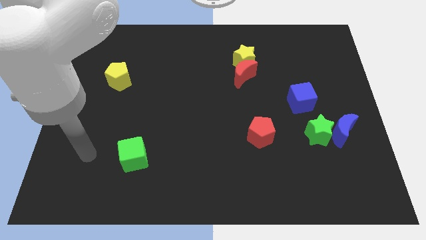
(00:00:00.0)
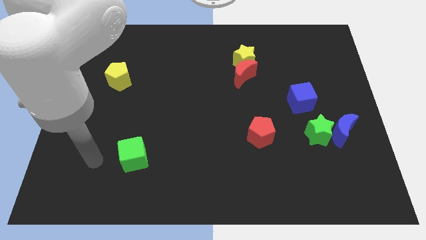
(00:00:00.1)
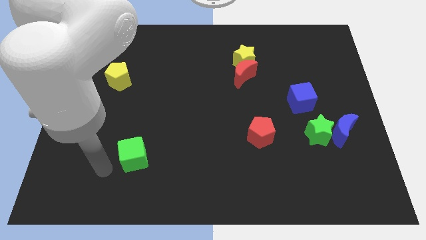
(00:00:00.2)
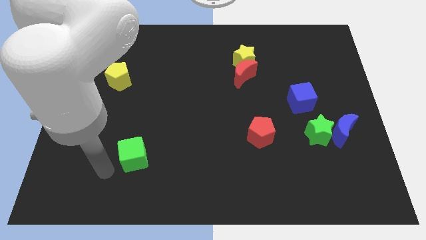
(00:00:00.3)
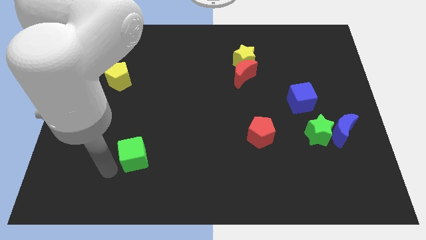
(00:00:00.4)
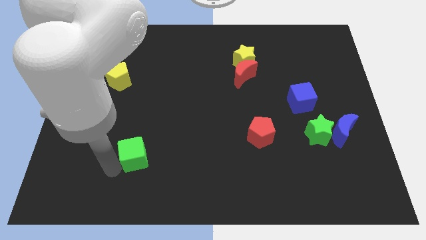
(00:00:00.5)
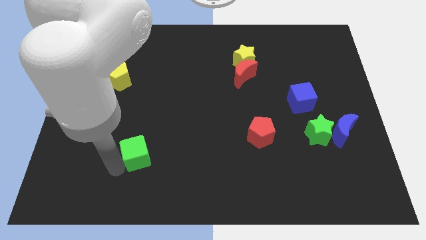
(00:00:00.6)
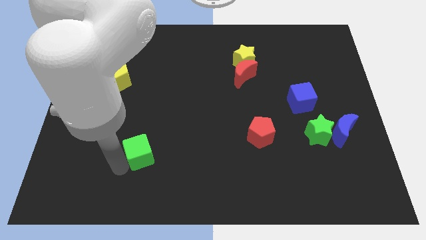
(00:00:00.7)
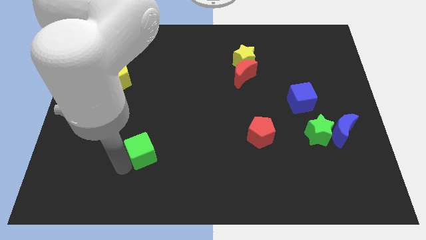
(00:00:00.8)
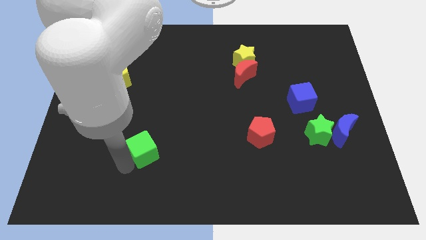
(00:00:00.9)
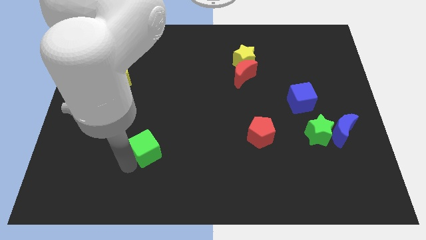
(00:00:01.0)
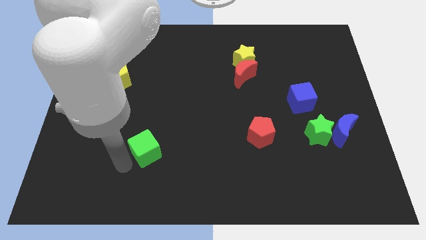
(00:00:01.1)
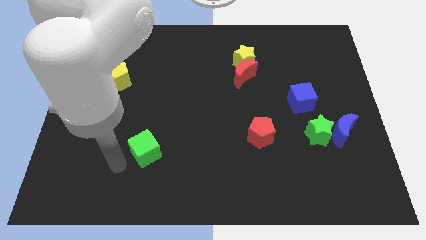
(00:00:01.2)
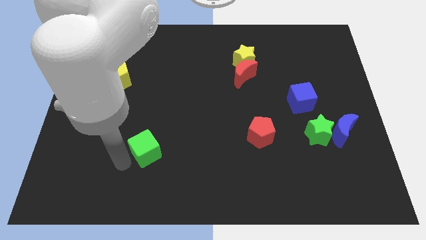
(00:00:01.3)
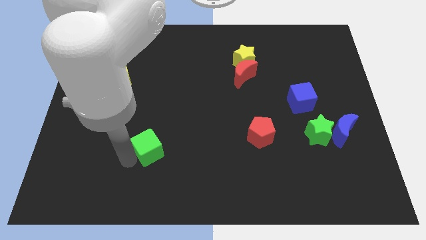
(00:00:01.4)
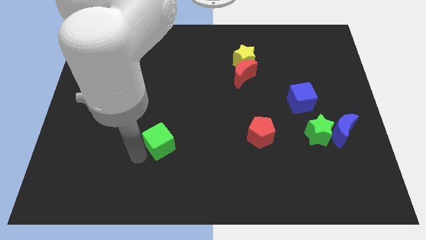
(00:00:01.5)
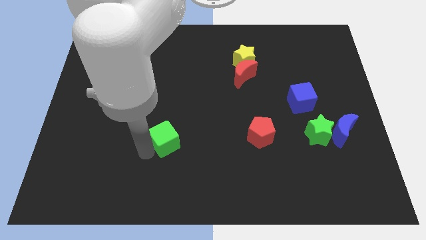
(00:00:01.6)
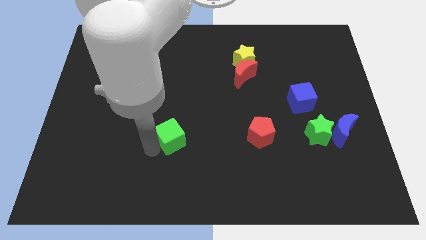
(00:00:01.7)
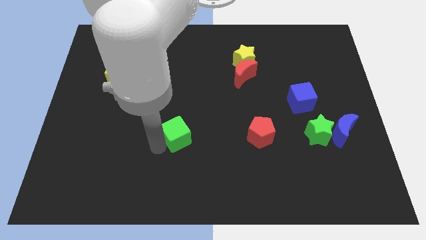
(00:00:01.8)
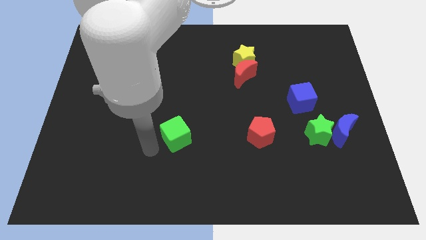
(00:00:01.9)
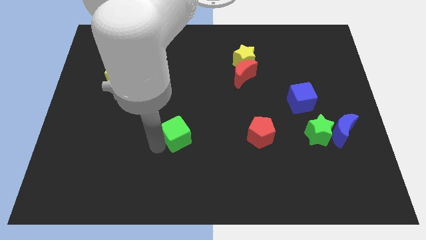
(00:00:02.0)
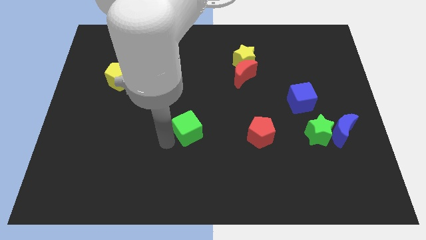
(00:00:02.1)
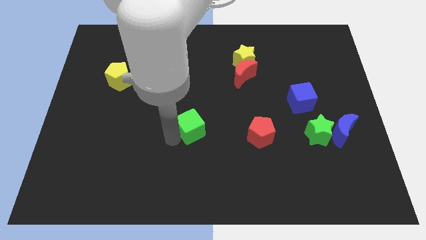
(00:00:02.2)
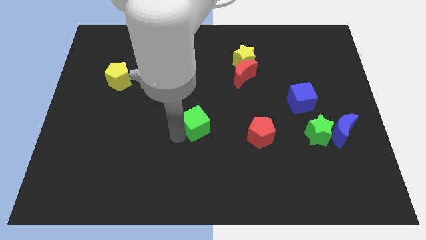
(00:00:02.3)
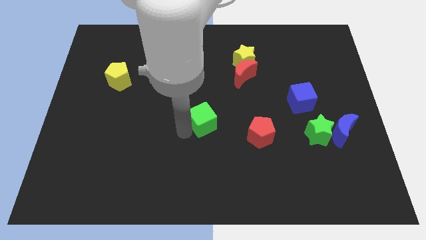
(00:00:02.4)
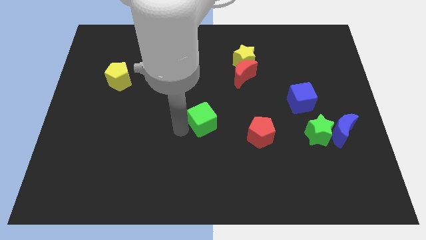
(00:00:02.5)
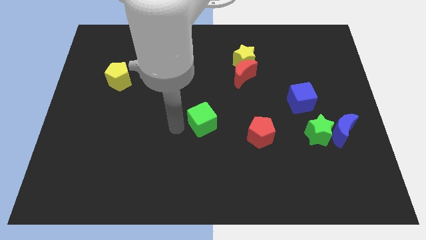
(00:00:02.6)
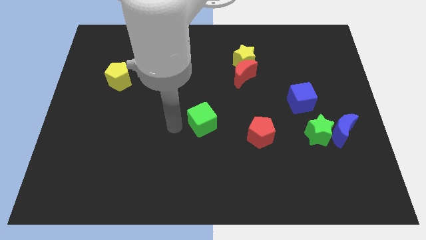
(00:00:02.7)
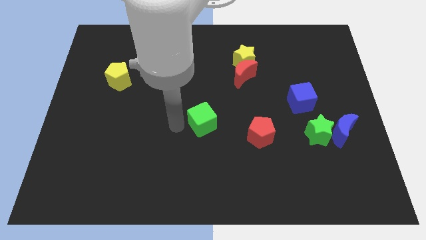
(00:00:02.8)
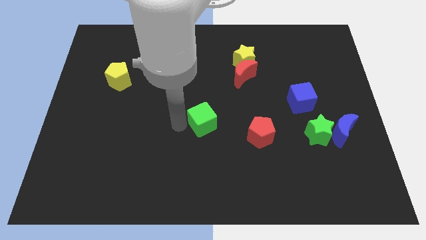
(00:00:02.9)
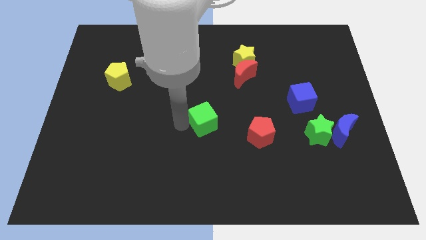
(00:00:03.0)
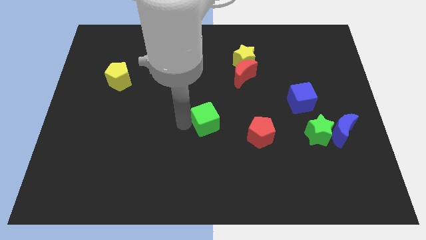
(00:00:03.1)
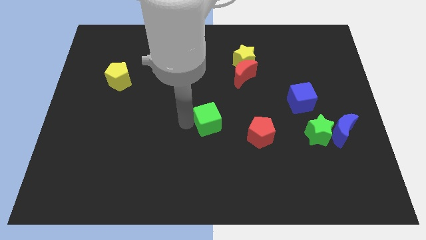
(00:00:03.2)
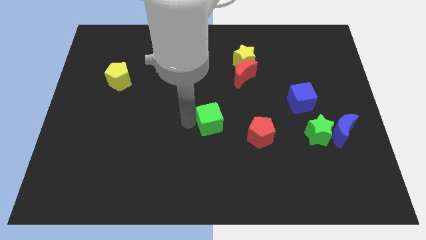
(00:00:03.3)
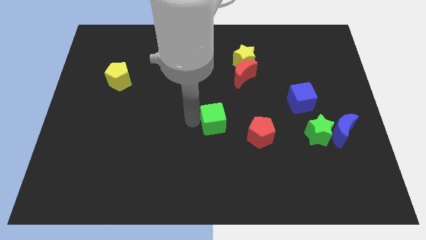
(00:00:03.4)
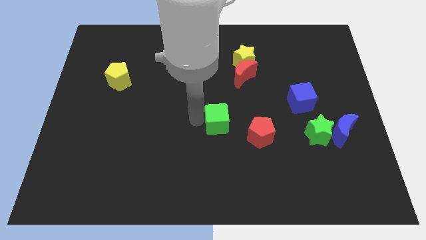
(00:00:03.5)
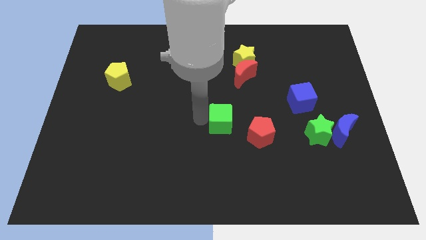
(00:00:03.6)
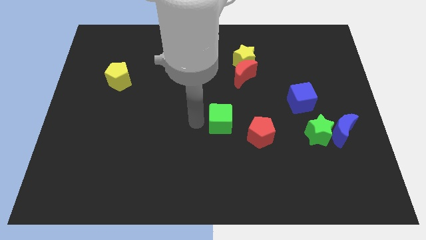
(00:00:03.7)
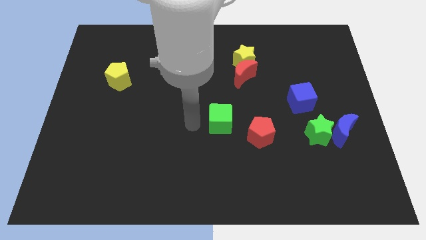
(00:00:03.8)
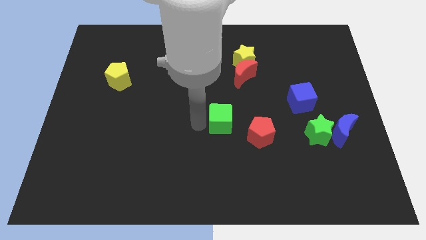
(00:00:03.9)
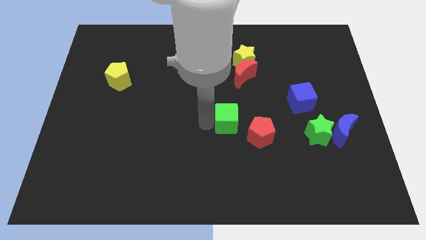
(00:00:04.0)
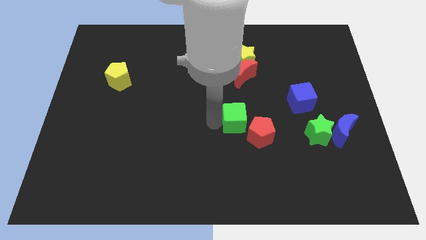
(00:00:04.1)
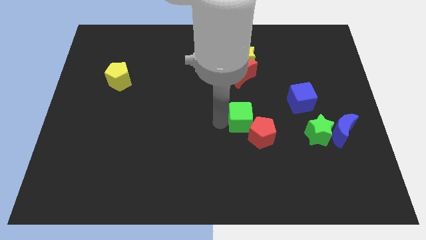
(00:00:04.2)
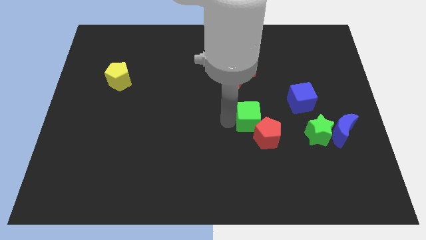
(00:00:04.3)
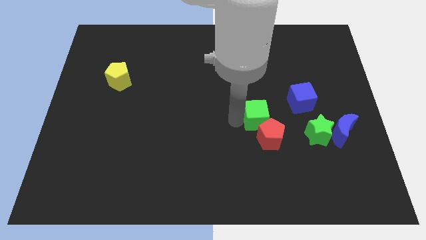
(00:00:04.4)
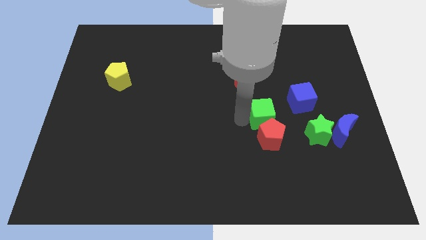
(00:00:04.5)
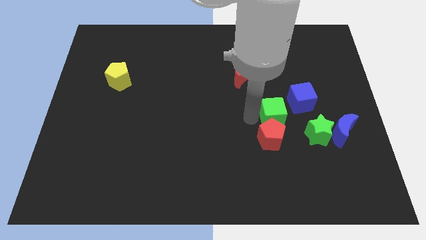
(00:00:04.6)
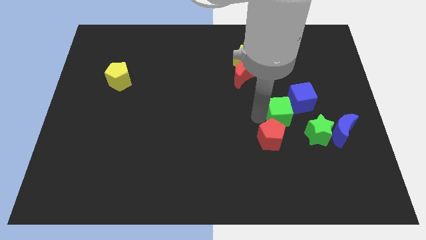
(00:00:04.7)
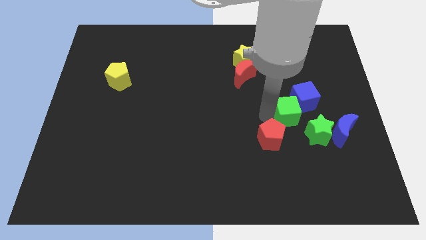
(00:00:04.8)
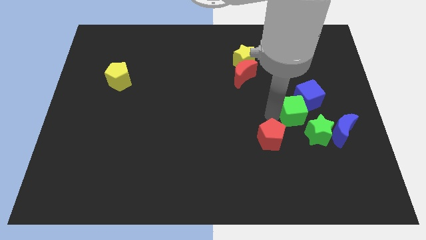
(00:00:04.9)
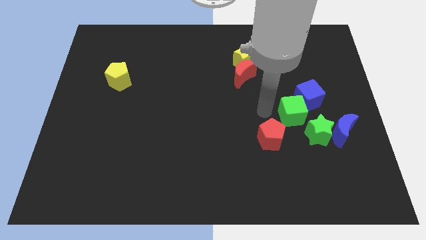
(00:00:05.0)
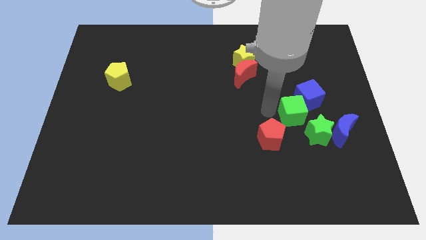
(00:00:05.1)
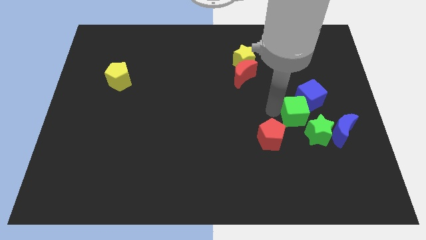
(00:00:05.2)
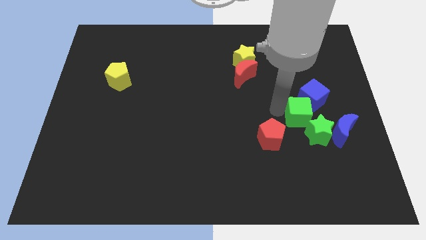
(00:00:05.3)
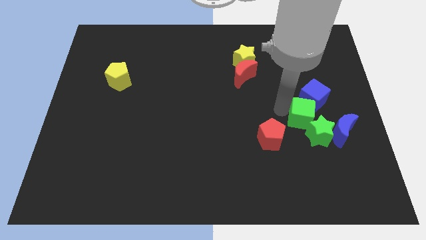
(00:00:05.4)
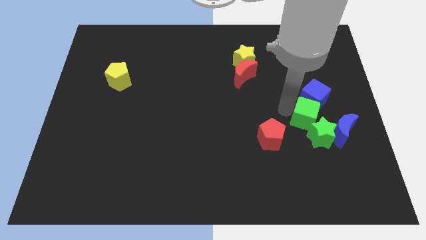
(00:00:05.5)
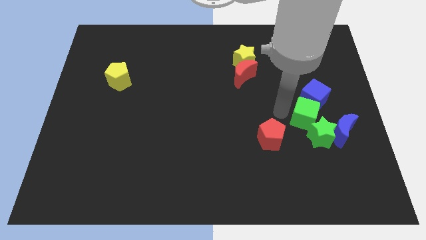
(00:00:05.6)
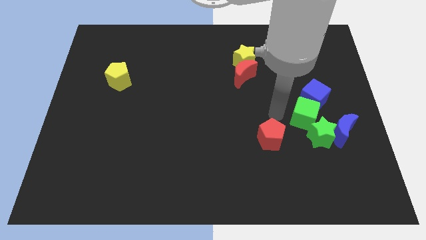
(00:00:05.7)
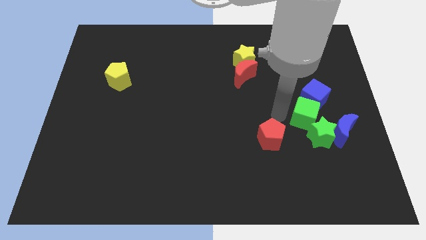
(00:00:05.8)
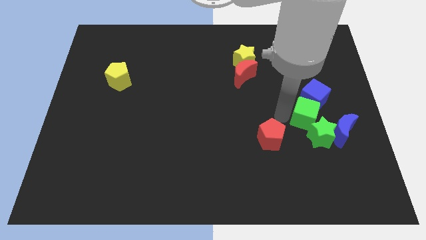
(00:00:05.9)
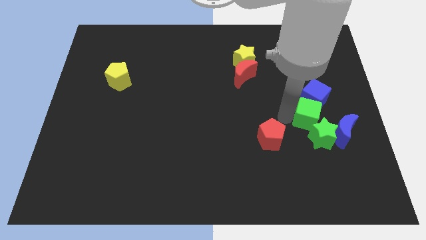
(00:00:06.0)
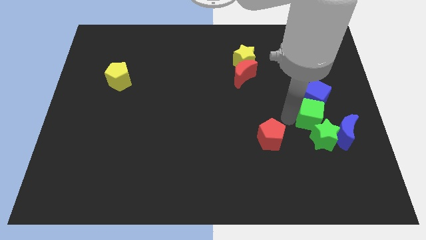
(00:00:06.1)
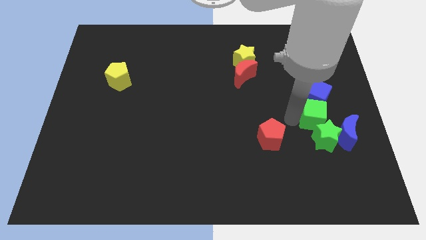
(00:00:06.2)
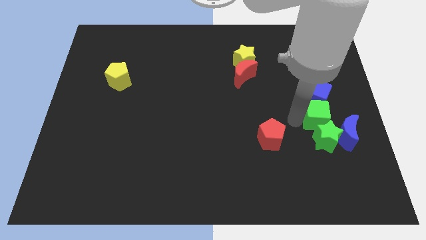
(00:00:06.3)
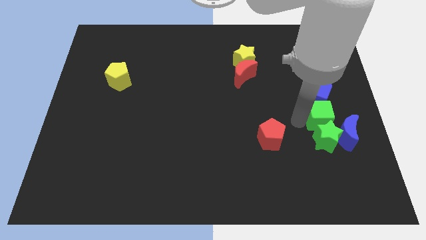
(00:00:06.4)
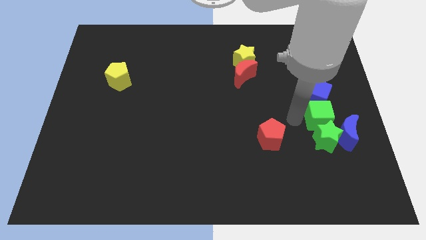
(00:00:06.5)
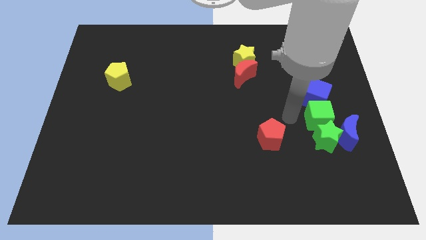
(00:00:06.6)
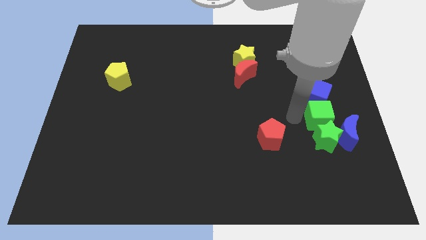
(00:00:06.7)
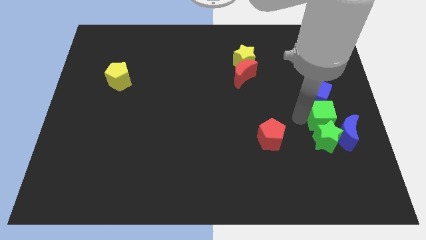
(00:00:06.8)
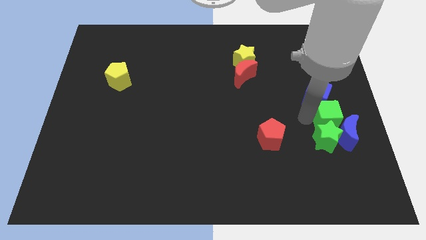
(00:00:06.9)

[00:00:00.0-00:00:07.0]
move the green cube next to the blue moon
